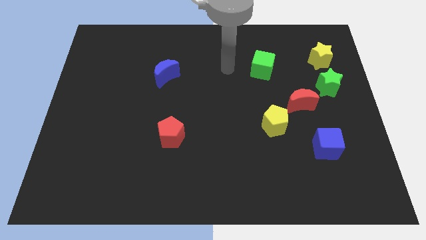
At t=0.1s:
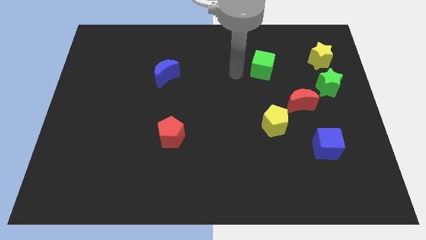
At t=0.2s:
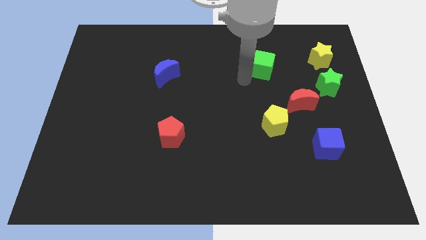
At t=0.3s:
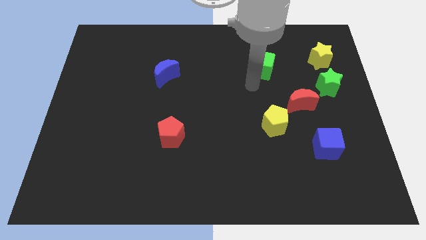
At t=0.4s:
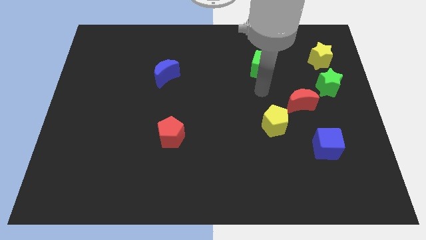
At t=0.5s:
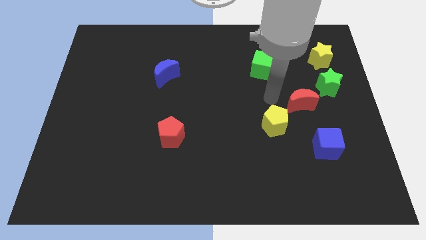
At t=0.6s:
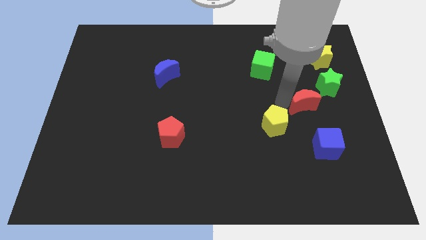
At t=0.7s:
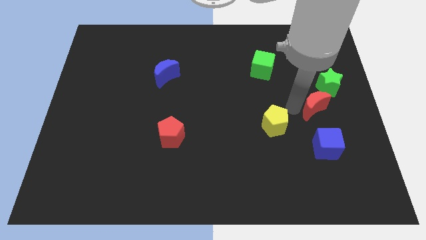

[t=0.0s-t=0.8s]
move the yellow pentagon away from the red moon

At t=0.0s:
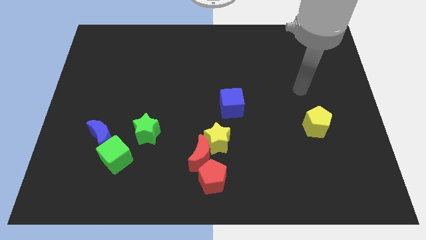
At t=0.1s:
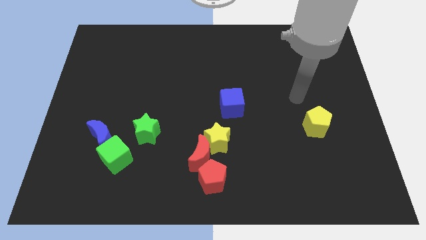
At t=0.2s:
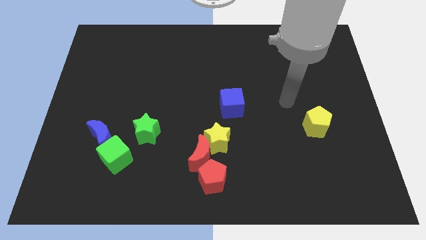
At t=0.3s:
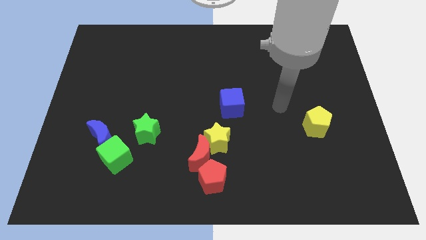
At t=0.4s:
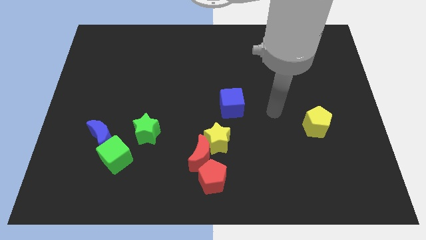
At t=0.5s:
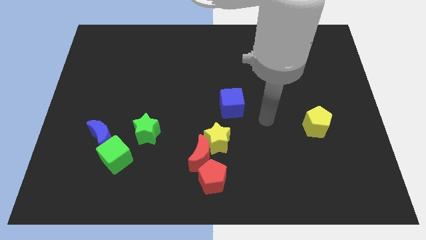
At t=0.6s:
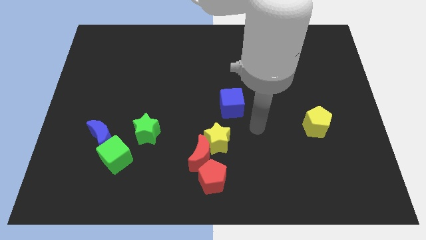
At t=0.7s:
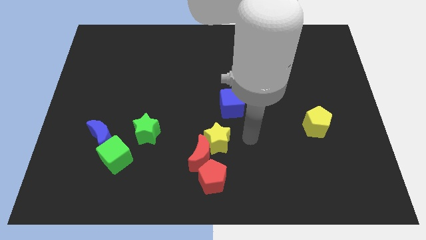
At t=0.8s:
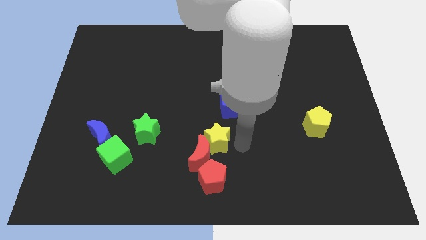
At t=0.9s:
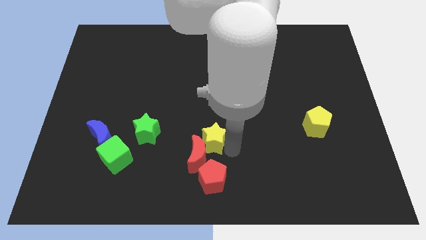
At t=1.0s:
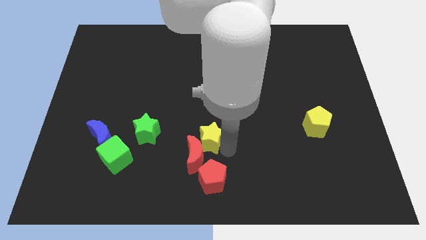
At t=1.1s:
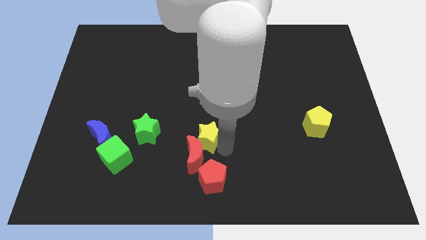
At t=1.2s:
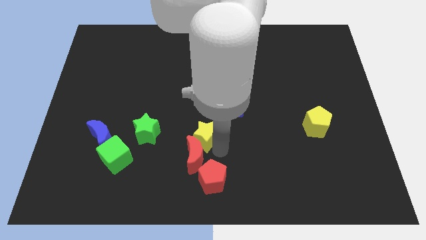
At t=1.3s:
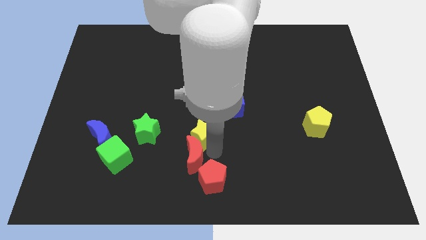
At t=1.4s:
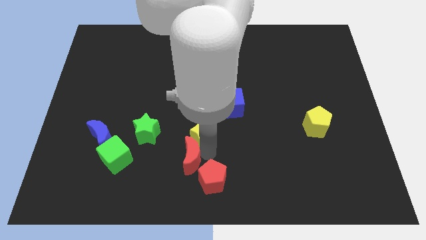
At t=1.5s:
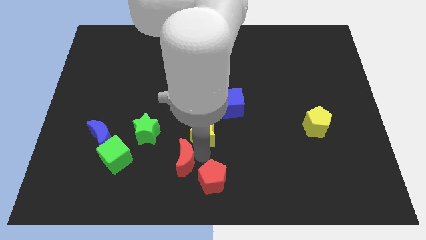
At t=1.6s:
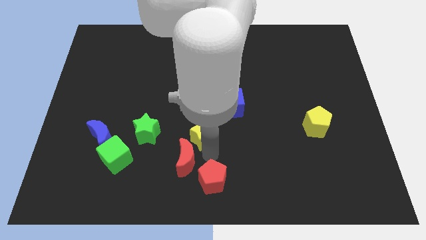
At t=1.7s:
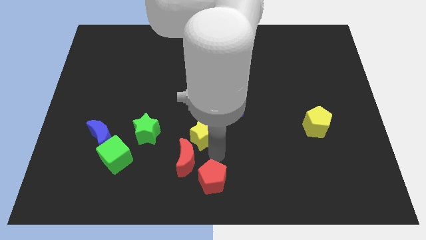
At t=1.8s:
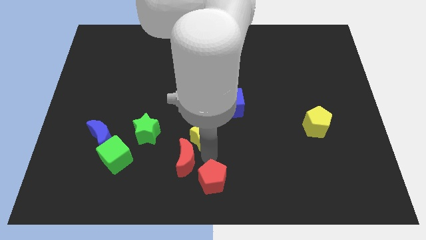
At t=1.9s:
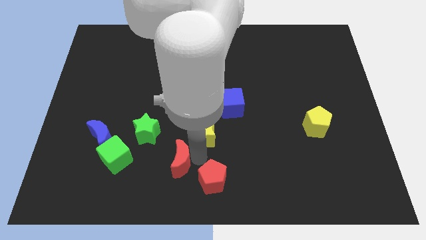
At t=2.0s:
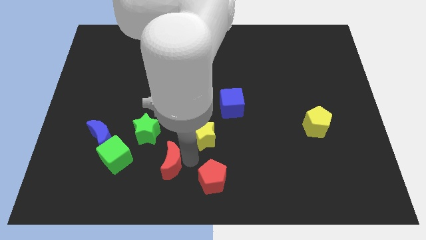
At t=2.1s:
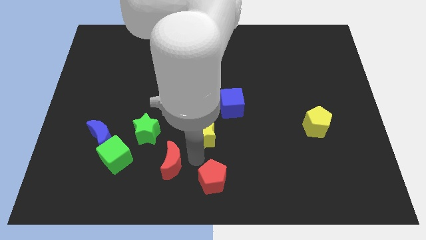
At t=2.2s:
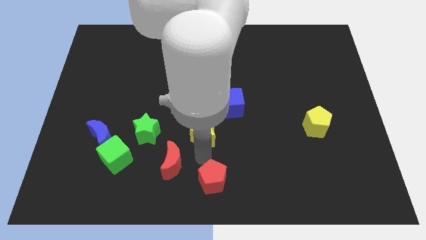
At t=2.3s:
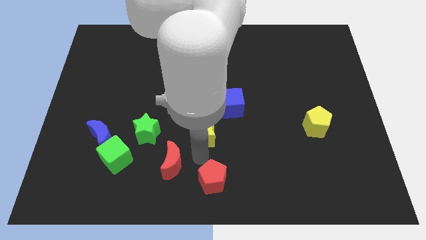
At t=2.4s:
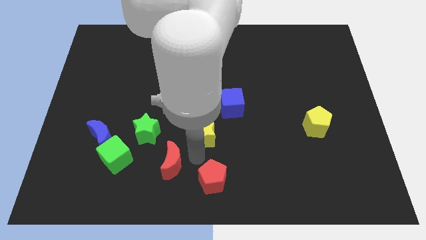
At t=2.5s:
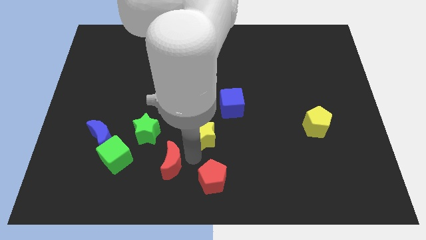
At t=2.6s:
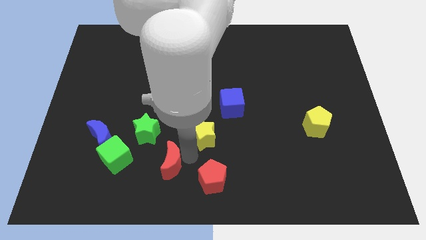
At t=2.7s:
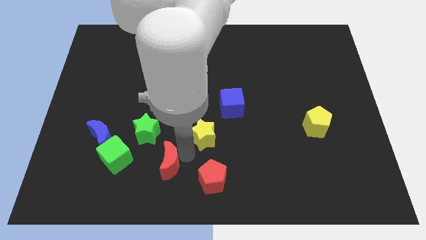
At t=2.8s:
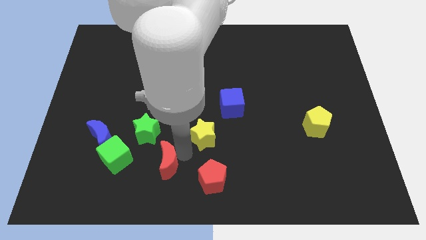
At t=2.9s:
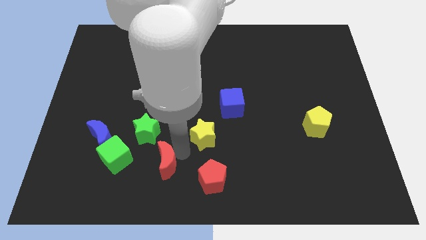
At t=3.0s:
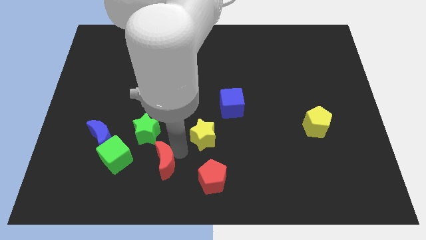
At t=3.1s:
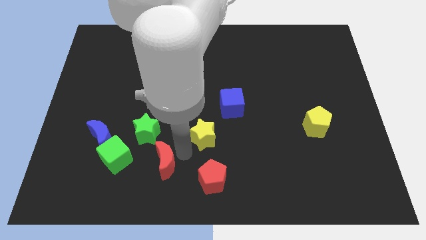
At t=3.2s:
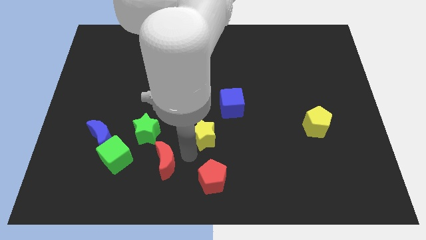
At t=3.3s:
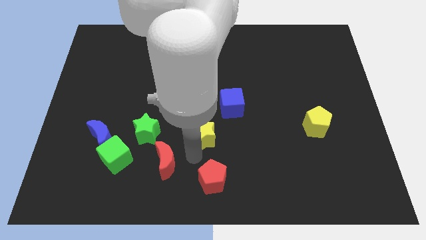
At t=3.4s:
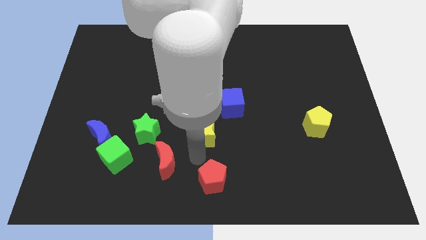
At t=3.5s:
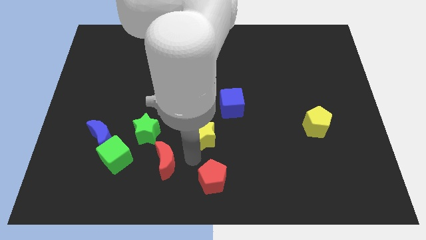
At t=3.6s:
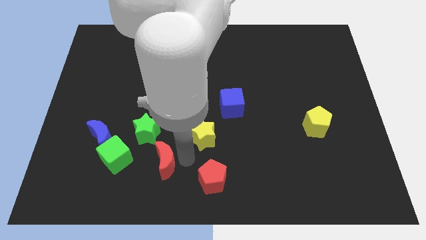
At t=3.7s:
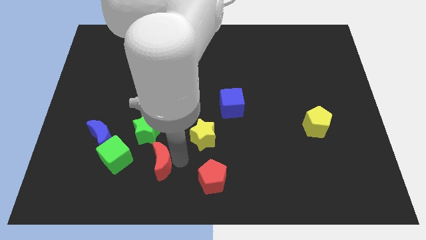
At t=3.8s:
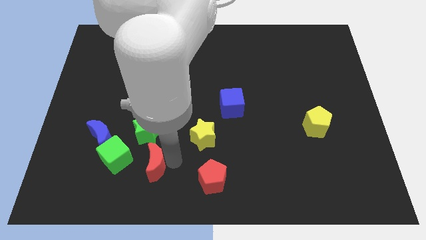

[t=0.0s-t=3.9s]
separate the red moon from the yellow star and red pentagon

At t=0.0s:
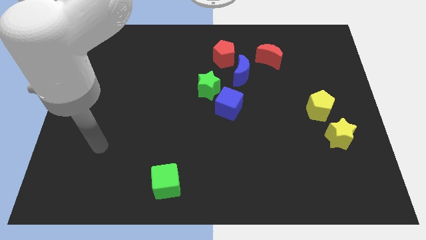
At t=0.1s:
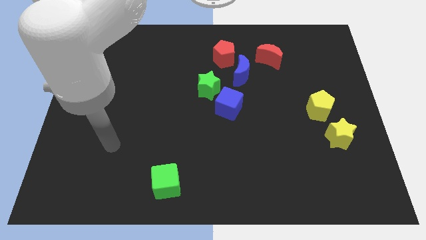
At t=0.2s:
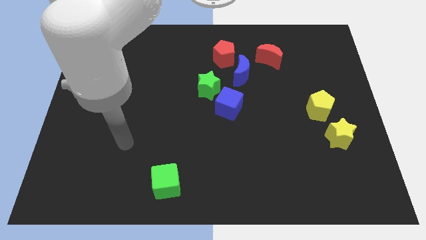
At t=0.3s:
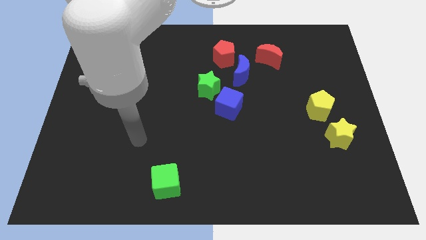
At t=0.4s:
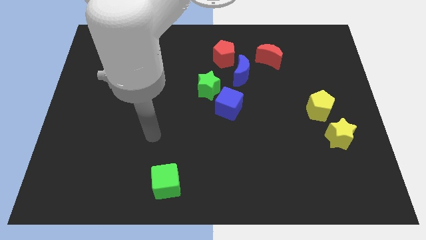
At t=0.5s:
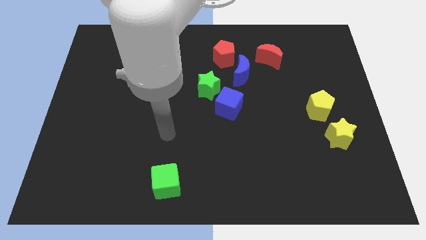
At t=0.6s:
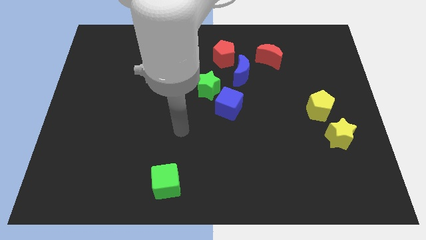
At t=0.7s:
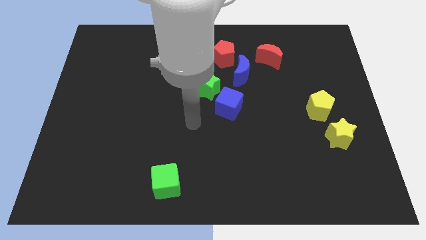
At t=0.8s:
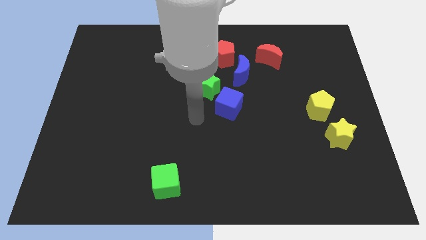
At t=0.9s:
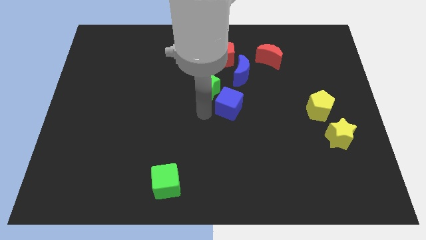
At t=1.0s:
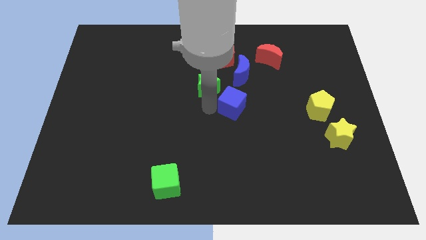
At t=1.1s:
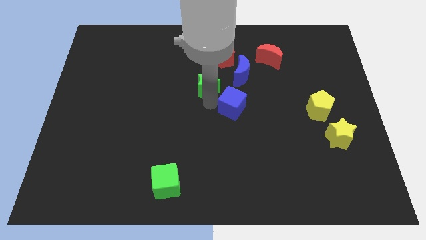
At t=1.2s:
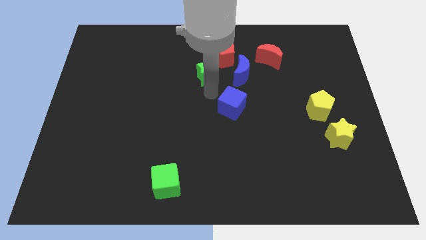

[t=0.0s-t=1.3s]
separate the blue cube from the green star

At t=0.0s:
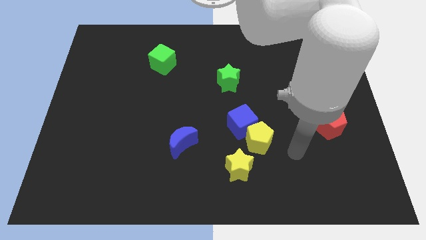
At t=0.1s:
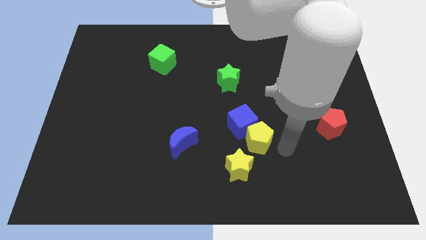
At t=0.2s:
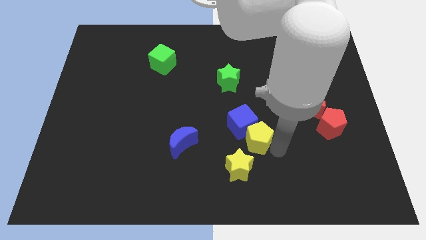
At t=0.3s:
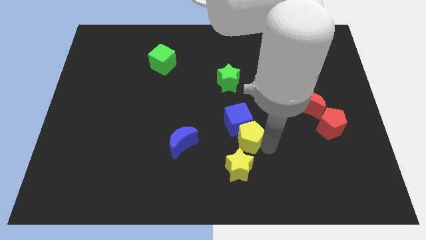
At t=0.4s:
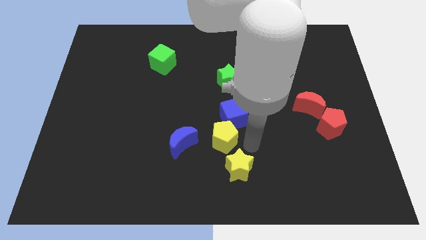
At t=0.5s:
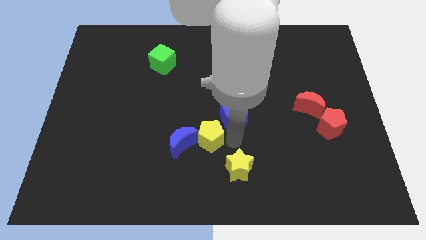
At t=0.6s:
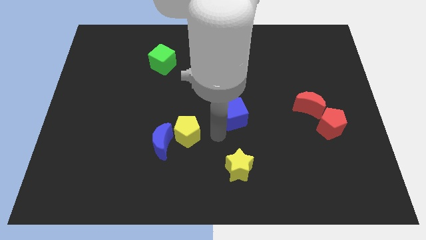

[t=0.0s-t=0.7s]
pull the blue cube apart from the yellow pentagon

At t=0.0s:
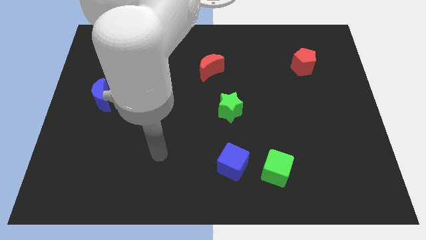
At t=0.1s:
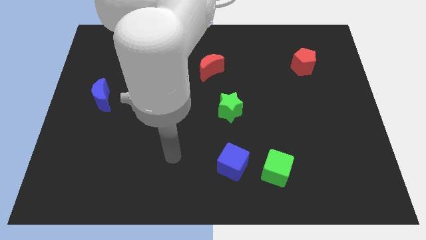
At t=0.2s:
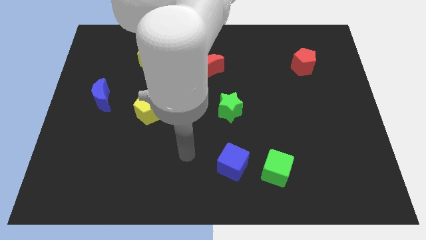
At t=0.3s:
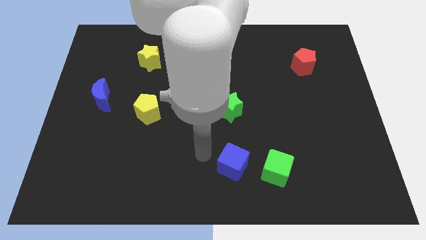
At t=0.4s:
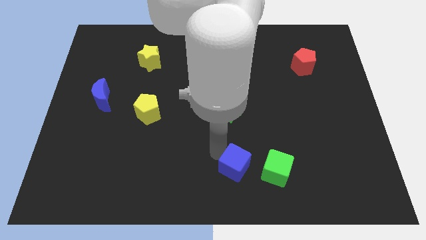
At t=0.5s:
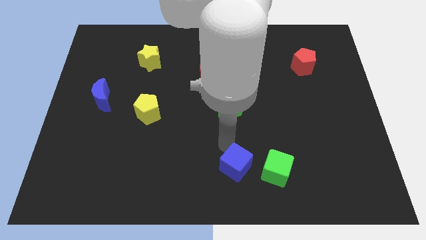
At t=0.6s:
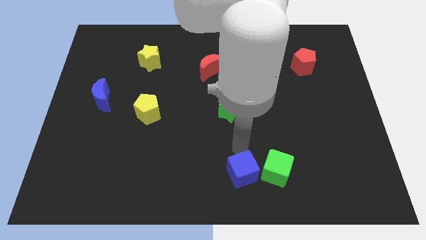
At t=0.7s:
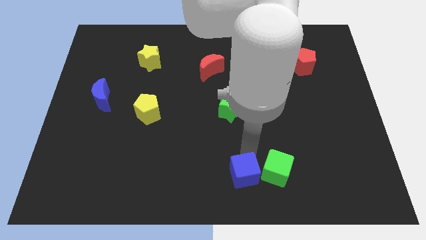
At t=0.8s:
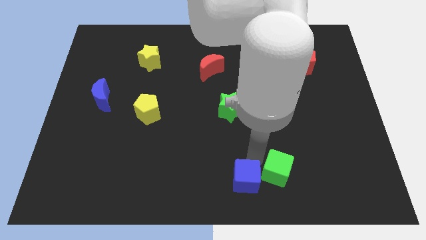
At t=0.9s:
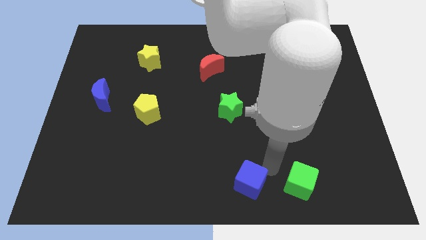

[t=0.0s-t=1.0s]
pull the blue cube apart from the green cube

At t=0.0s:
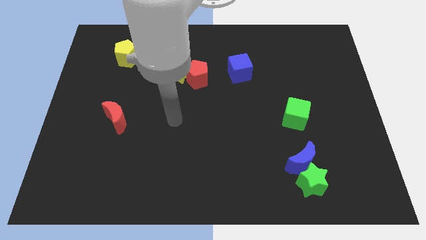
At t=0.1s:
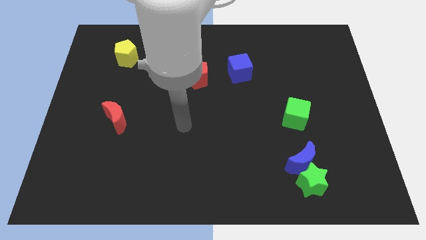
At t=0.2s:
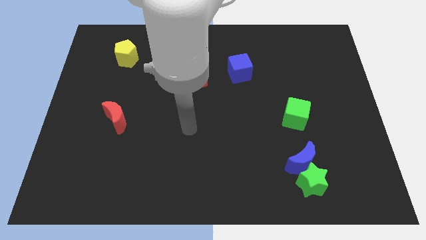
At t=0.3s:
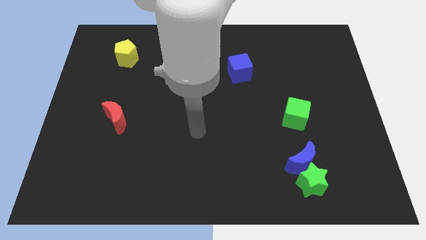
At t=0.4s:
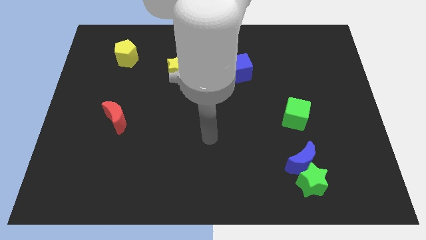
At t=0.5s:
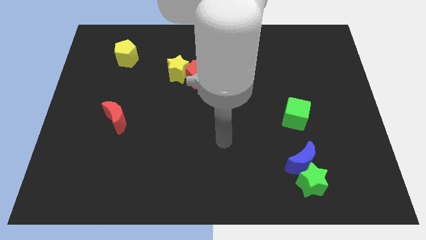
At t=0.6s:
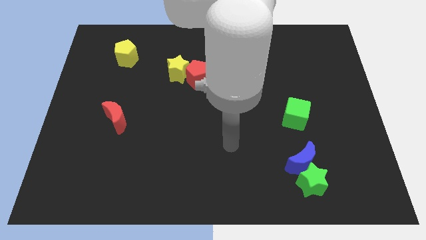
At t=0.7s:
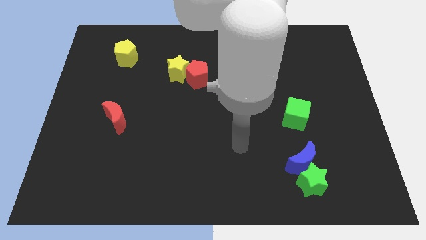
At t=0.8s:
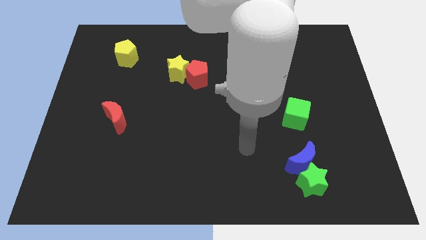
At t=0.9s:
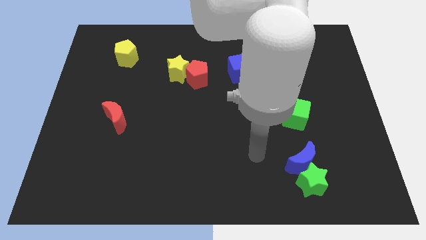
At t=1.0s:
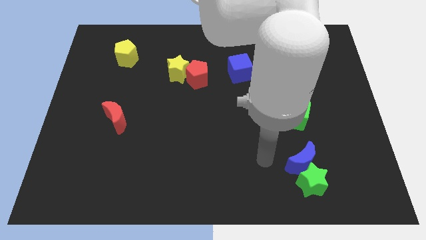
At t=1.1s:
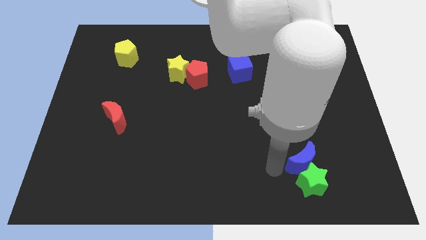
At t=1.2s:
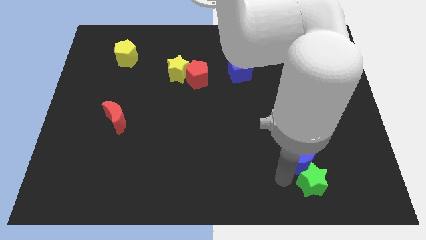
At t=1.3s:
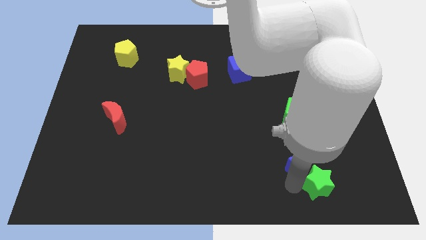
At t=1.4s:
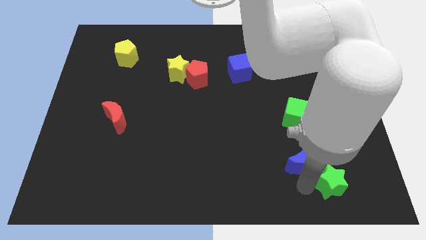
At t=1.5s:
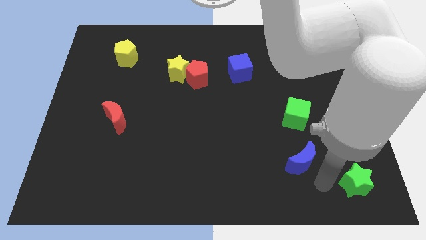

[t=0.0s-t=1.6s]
separate the blue moon from the green star
